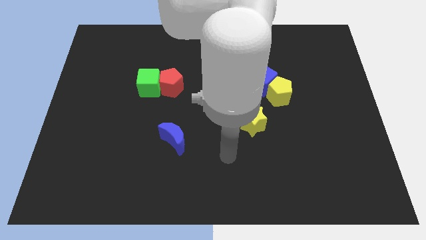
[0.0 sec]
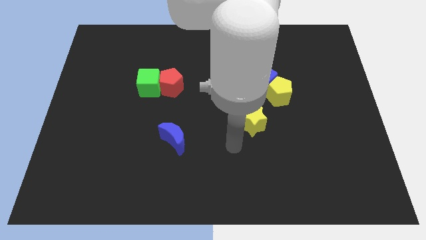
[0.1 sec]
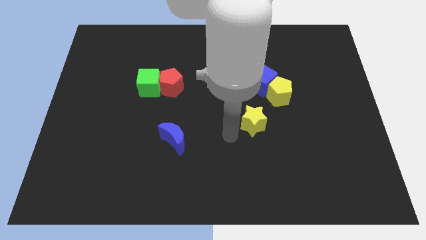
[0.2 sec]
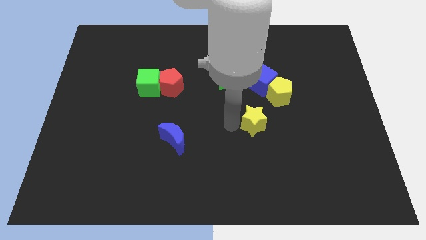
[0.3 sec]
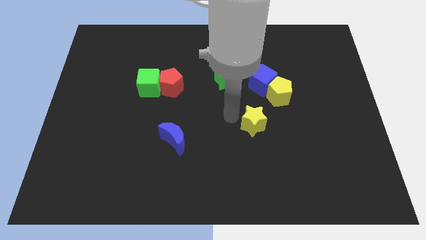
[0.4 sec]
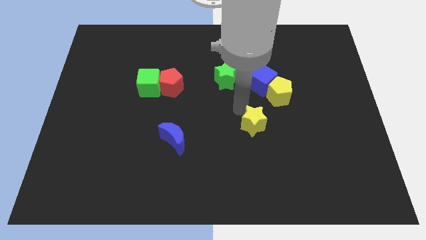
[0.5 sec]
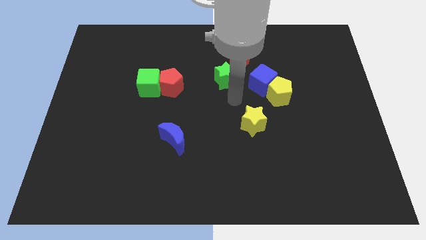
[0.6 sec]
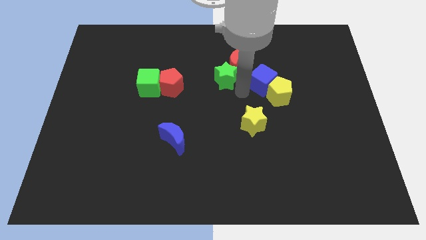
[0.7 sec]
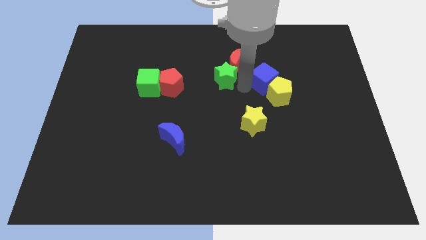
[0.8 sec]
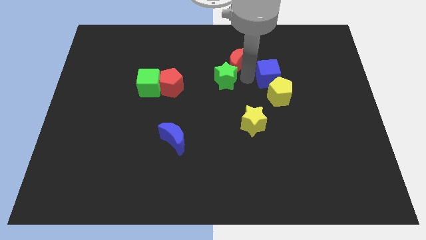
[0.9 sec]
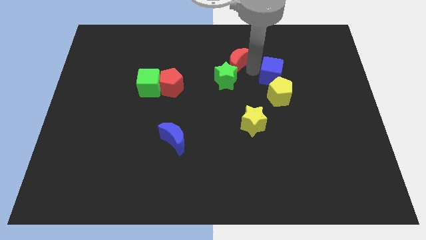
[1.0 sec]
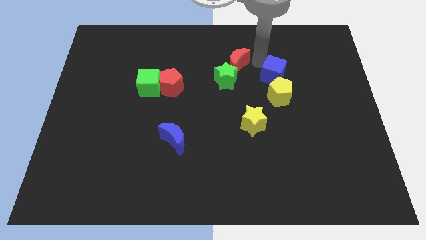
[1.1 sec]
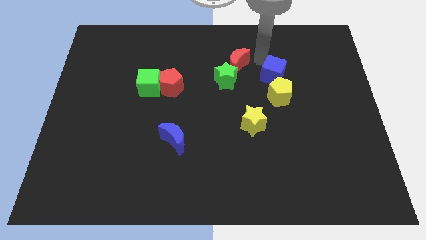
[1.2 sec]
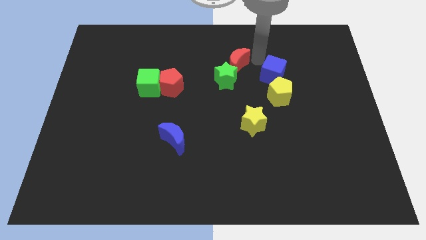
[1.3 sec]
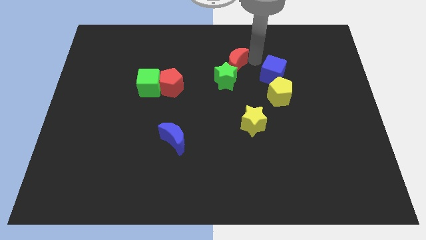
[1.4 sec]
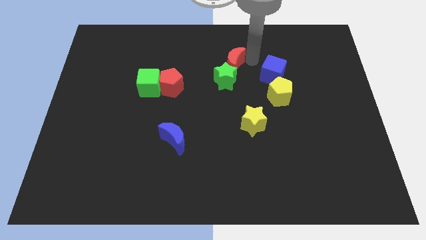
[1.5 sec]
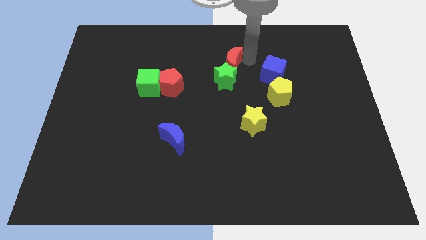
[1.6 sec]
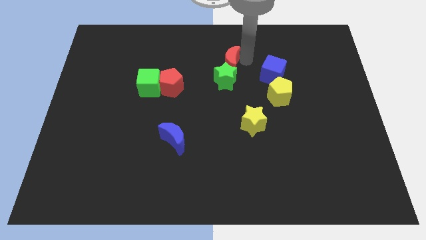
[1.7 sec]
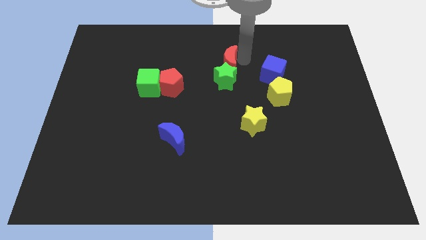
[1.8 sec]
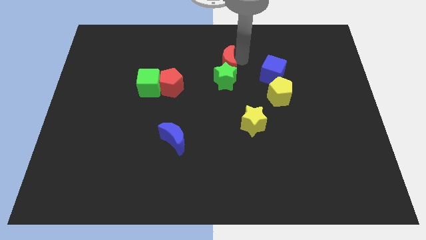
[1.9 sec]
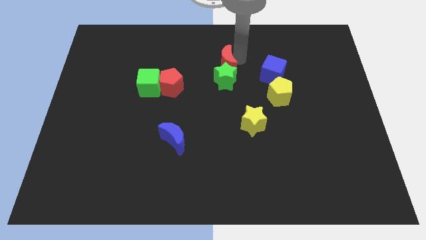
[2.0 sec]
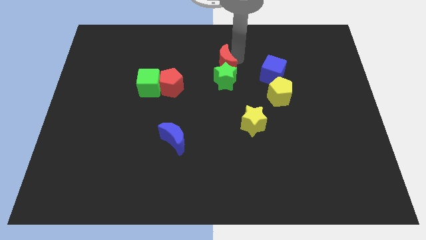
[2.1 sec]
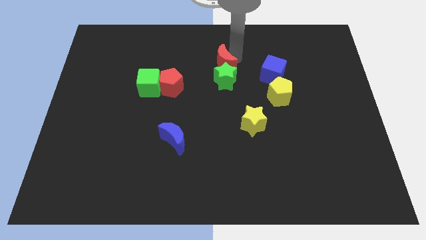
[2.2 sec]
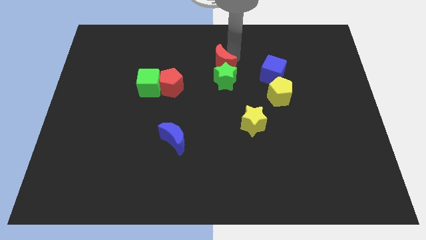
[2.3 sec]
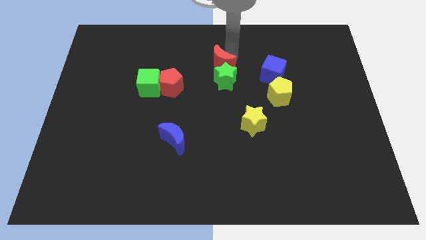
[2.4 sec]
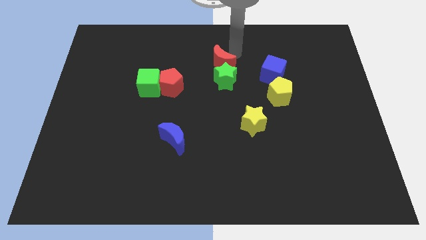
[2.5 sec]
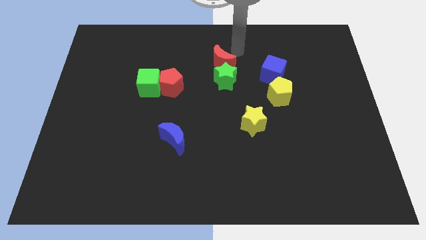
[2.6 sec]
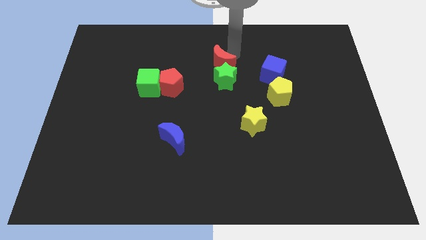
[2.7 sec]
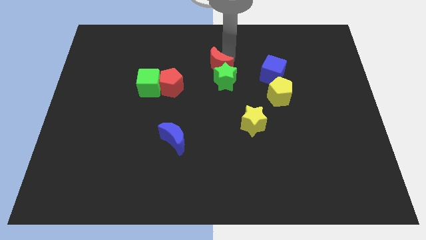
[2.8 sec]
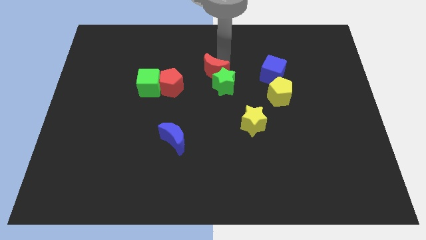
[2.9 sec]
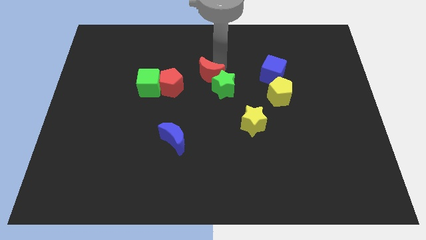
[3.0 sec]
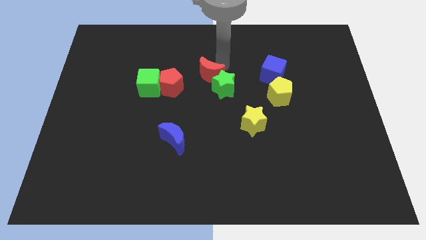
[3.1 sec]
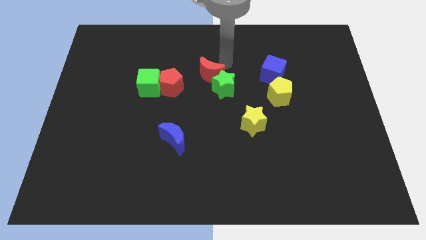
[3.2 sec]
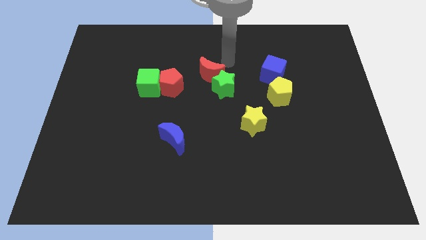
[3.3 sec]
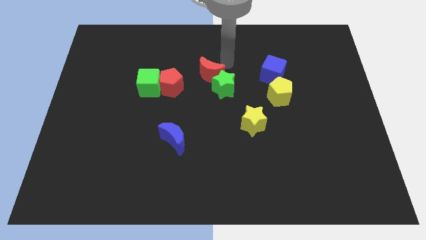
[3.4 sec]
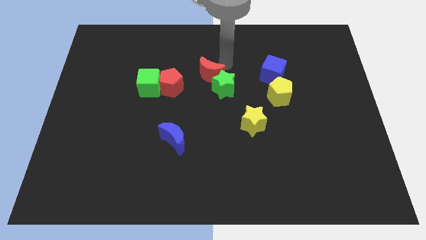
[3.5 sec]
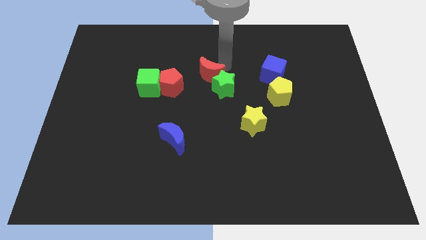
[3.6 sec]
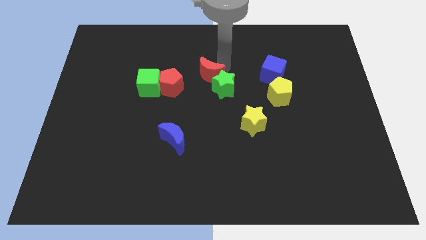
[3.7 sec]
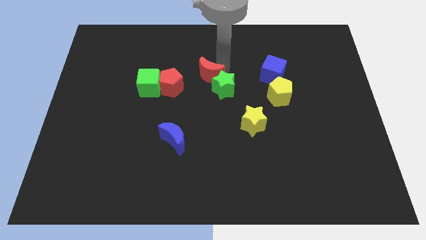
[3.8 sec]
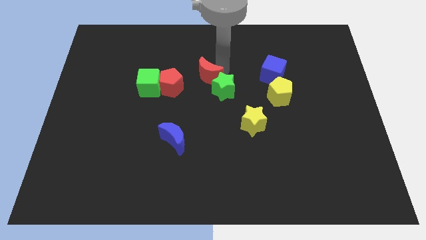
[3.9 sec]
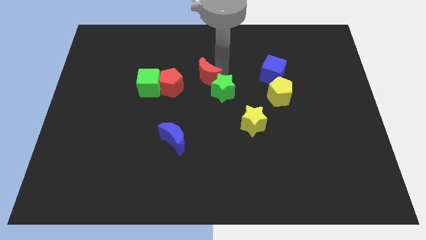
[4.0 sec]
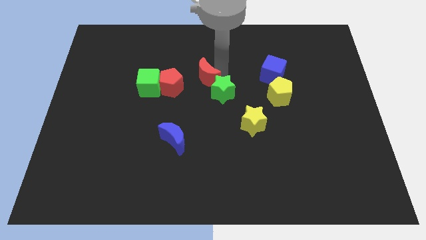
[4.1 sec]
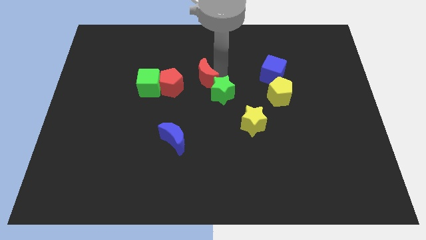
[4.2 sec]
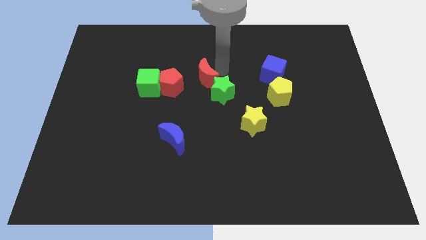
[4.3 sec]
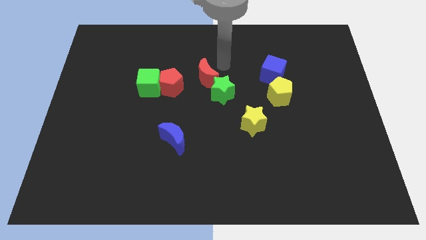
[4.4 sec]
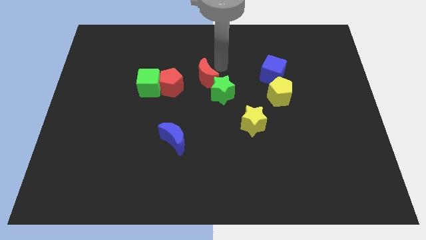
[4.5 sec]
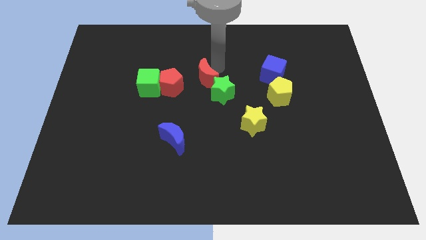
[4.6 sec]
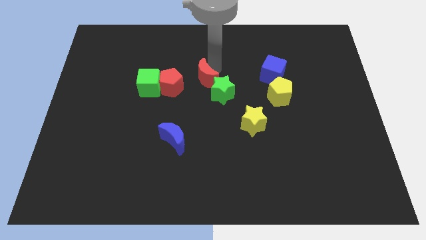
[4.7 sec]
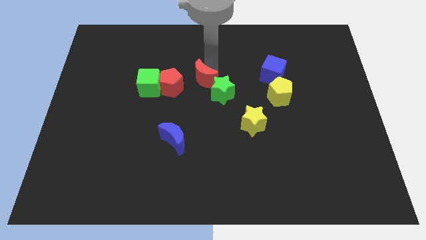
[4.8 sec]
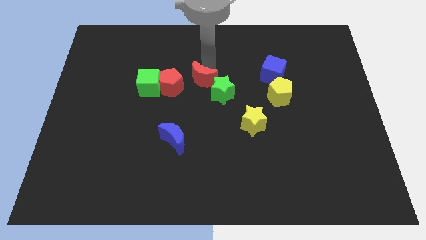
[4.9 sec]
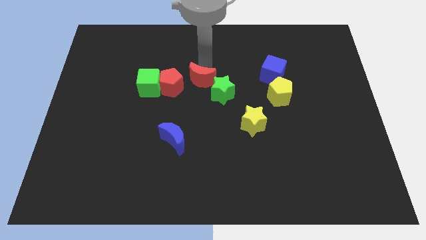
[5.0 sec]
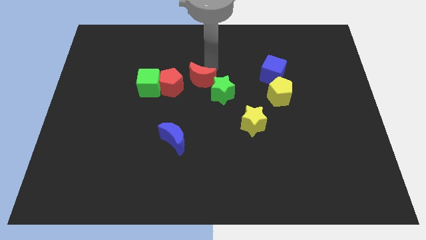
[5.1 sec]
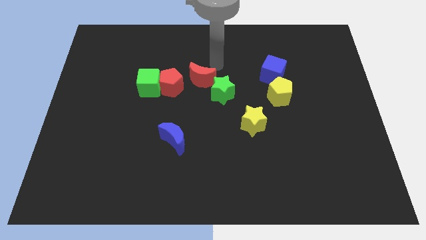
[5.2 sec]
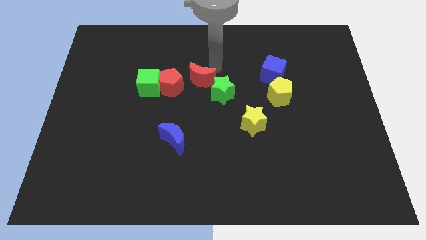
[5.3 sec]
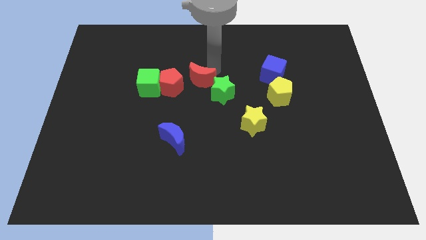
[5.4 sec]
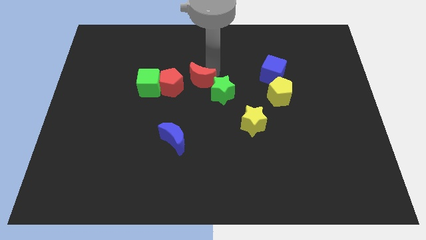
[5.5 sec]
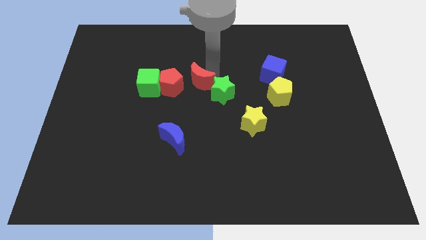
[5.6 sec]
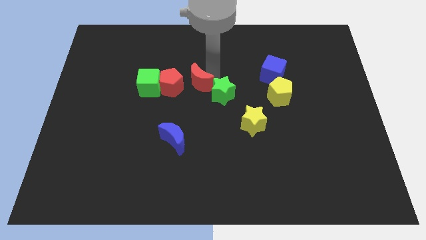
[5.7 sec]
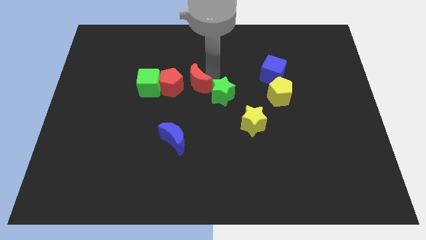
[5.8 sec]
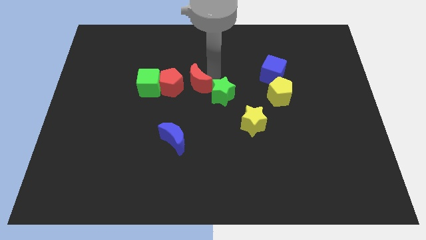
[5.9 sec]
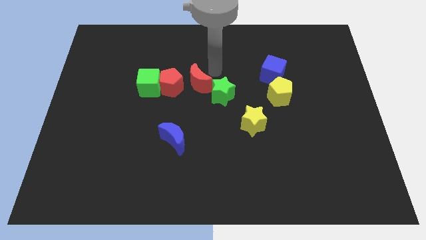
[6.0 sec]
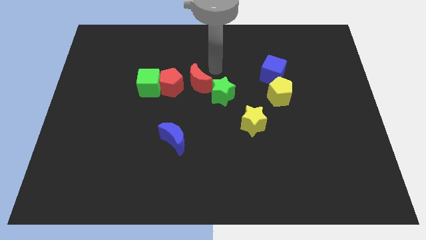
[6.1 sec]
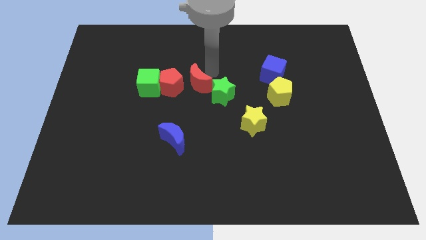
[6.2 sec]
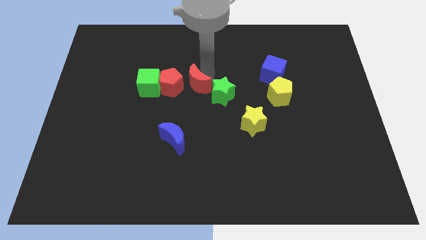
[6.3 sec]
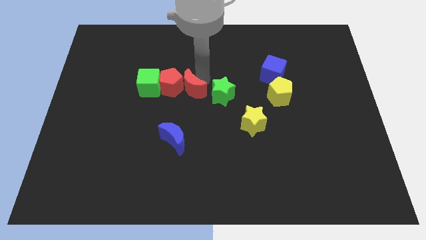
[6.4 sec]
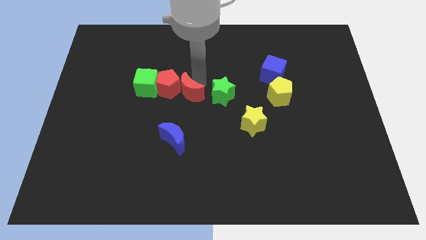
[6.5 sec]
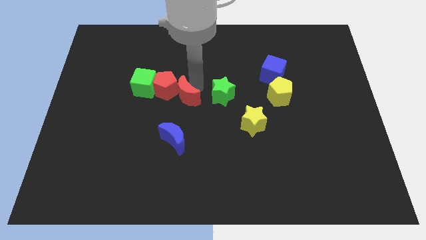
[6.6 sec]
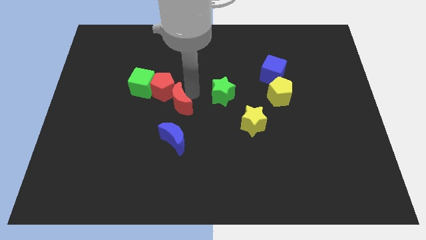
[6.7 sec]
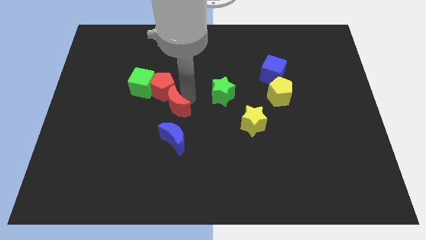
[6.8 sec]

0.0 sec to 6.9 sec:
push the red moon down and to the left diagonally

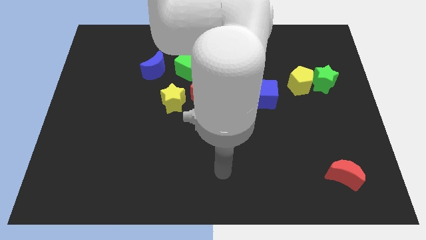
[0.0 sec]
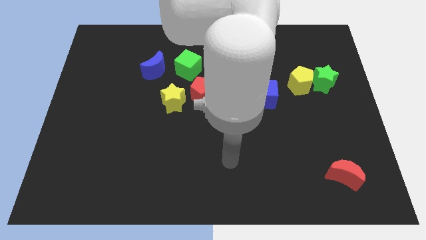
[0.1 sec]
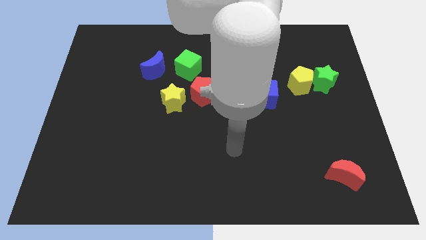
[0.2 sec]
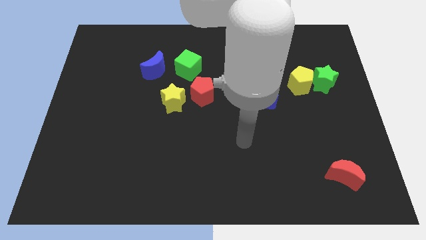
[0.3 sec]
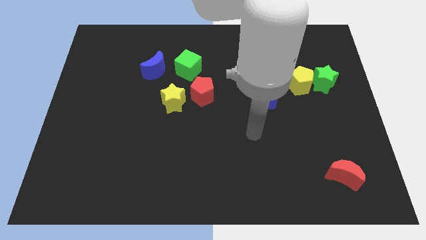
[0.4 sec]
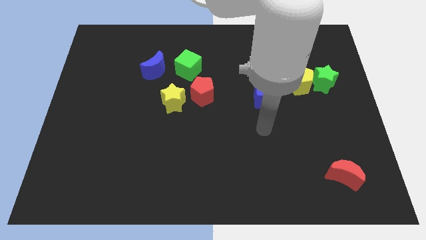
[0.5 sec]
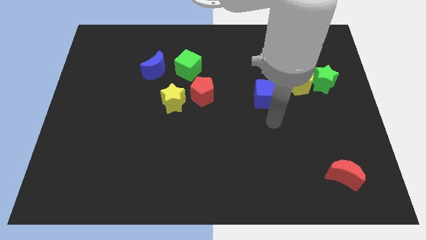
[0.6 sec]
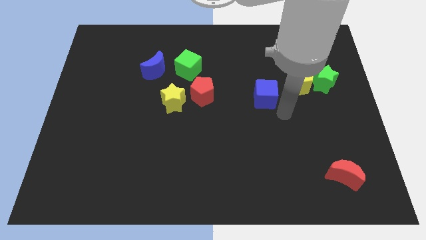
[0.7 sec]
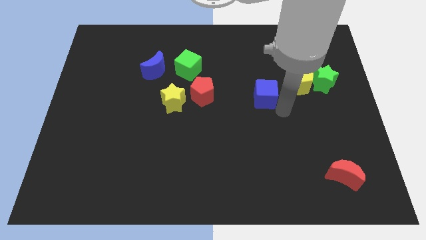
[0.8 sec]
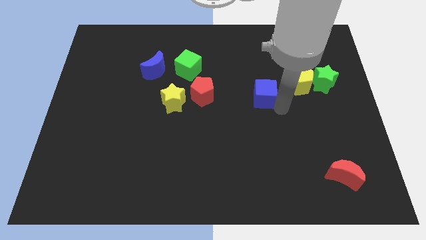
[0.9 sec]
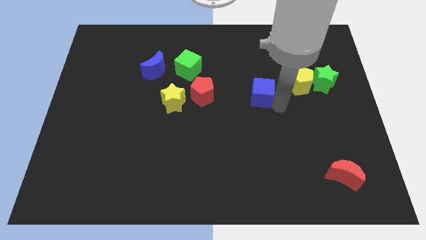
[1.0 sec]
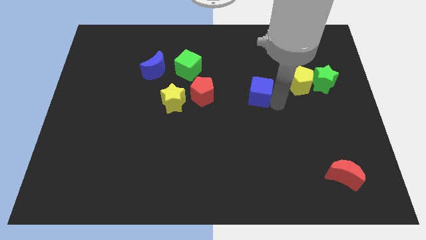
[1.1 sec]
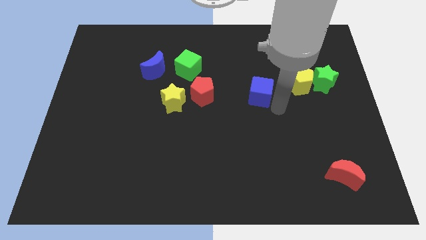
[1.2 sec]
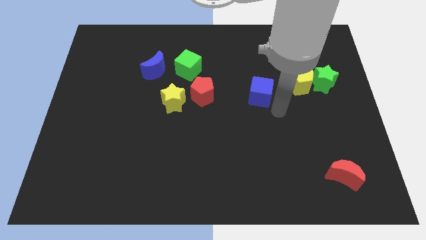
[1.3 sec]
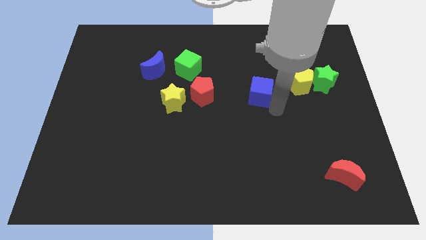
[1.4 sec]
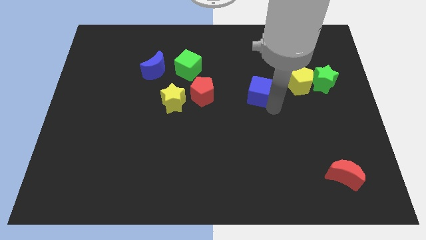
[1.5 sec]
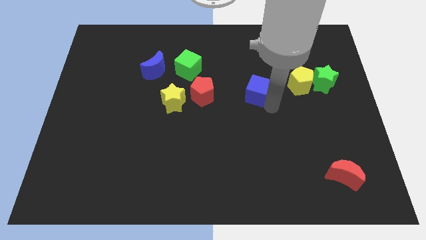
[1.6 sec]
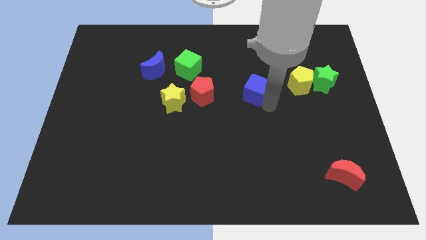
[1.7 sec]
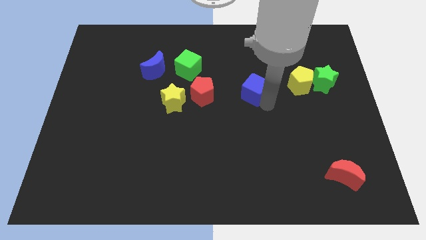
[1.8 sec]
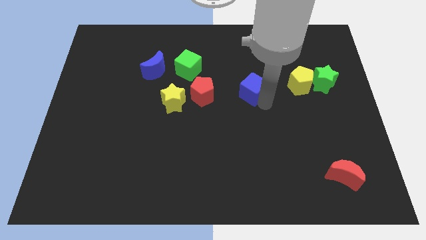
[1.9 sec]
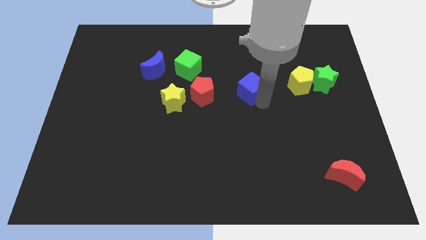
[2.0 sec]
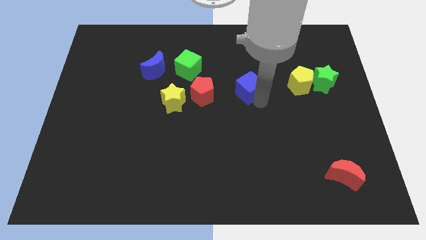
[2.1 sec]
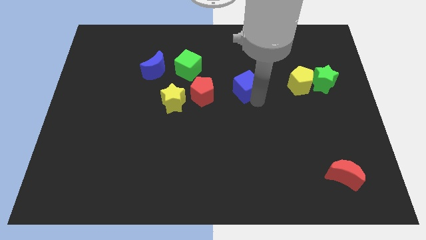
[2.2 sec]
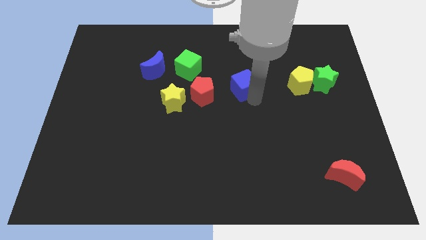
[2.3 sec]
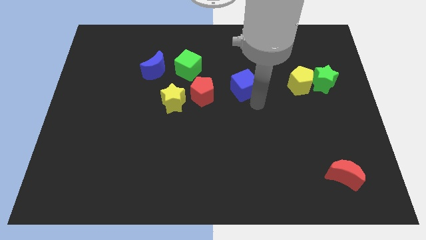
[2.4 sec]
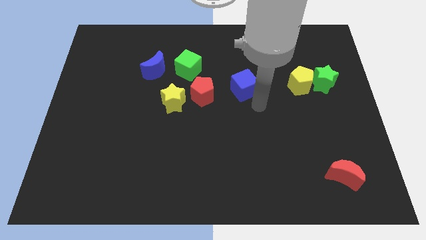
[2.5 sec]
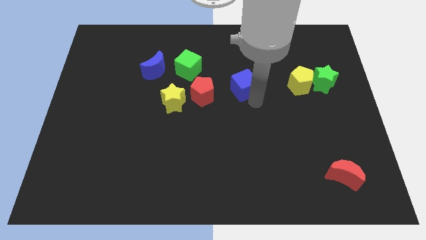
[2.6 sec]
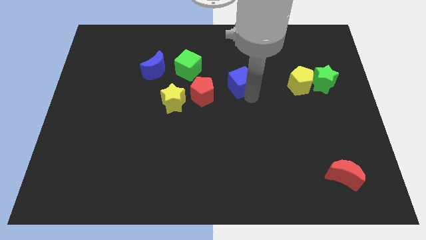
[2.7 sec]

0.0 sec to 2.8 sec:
push the blue cube slightly upwards and left
